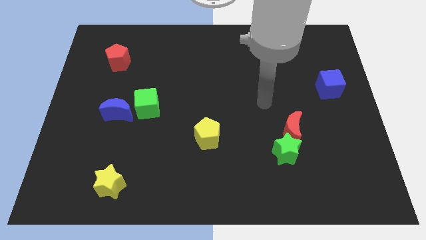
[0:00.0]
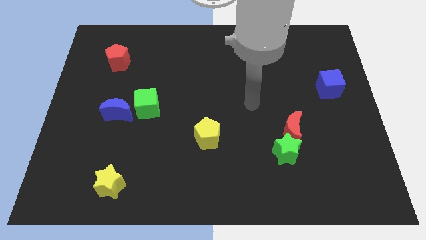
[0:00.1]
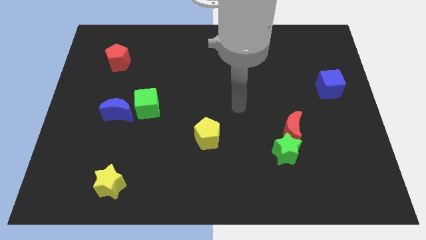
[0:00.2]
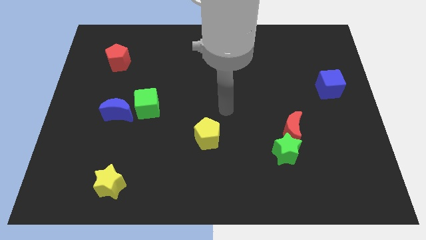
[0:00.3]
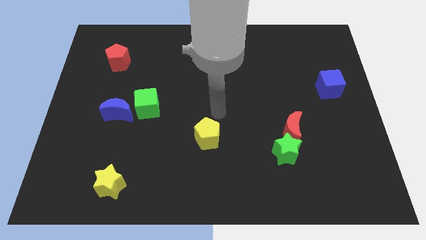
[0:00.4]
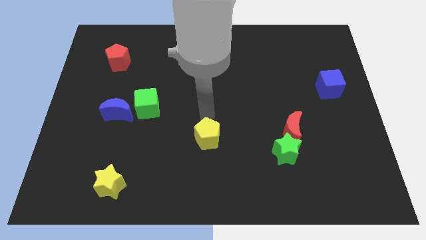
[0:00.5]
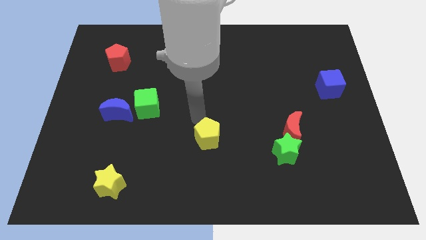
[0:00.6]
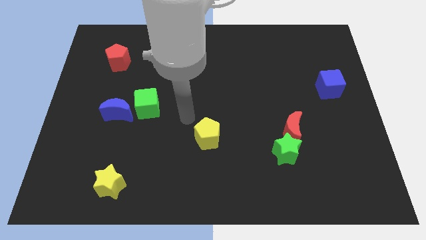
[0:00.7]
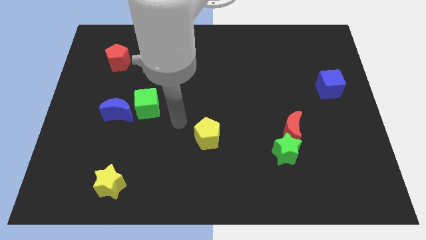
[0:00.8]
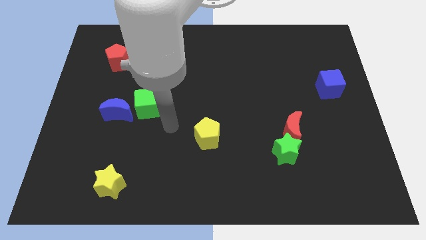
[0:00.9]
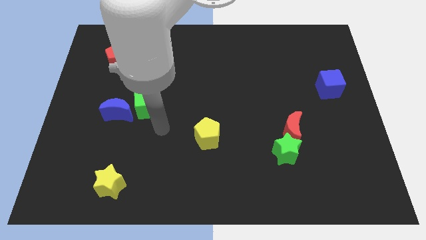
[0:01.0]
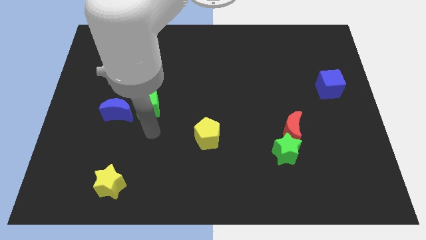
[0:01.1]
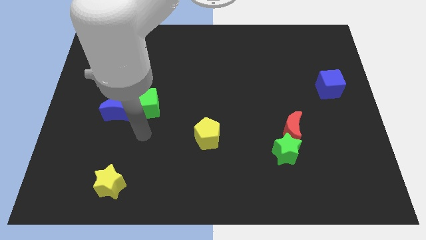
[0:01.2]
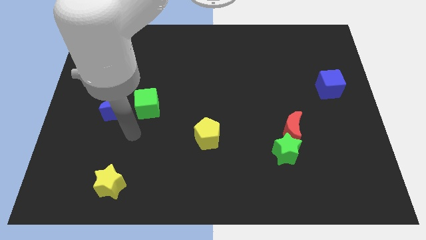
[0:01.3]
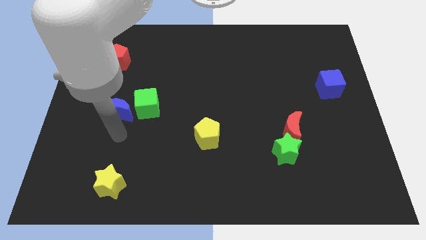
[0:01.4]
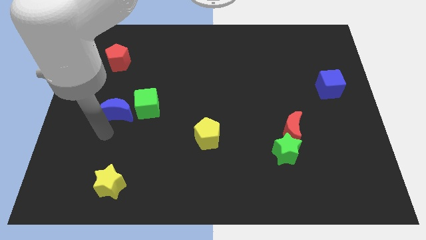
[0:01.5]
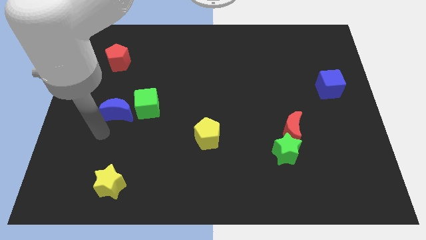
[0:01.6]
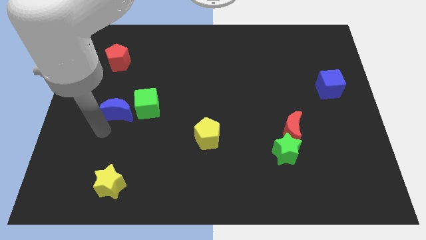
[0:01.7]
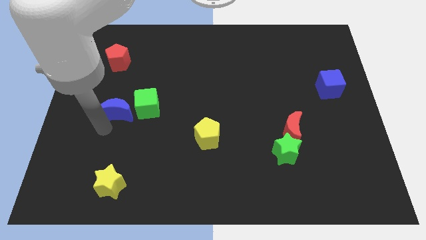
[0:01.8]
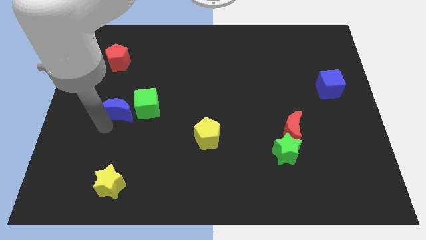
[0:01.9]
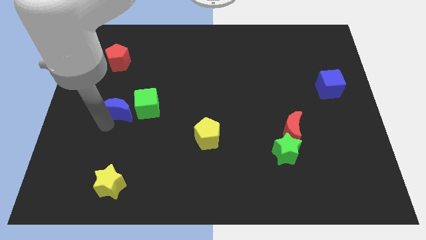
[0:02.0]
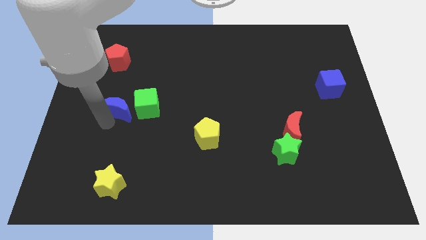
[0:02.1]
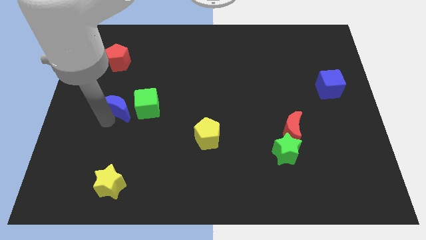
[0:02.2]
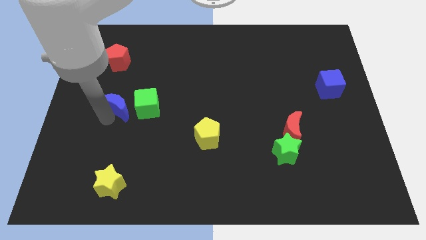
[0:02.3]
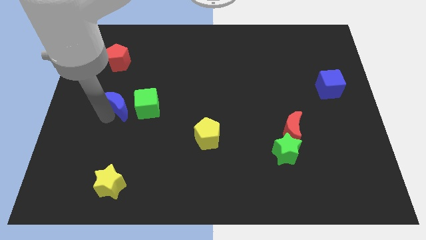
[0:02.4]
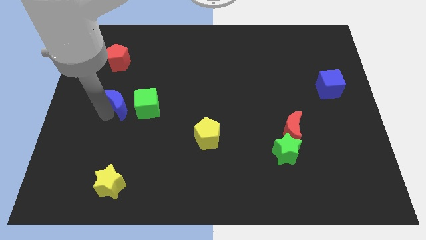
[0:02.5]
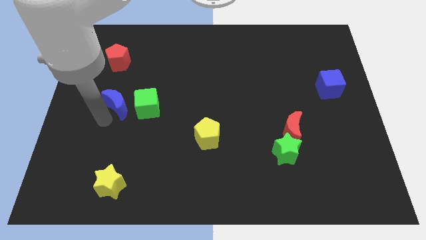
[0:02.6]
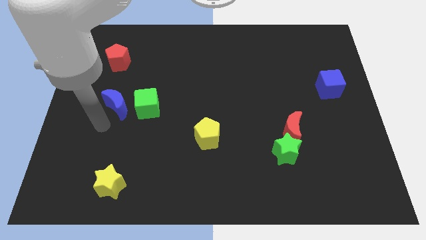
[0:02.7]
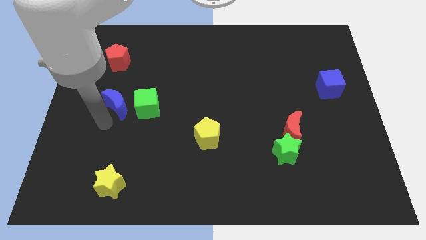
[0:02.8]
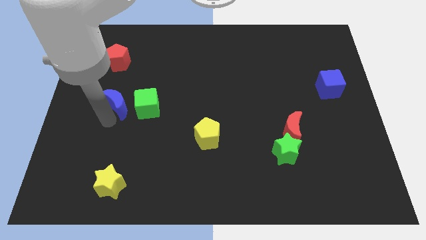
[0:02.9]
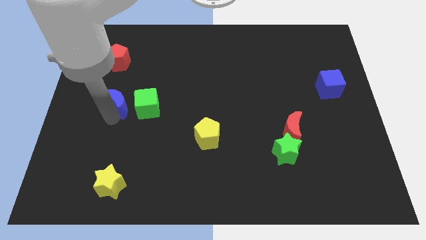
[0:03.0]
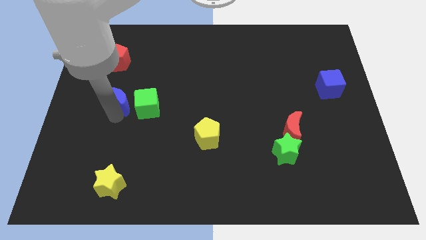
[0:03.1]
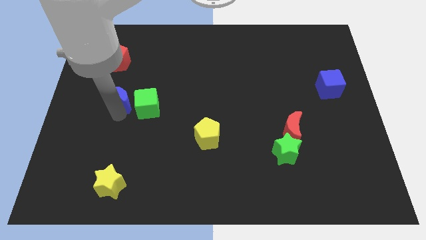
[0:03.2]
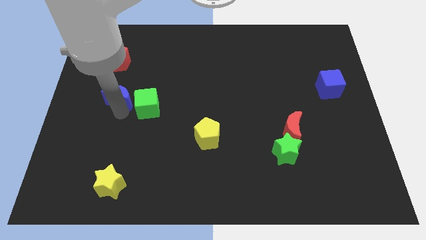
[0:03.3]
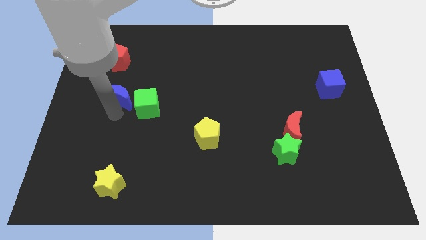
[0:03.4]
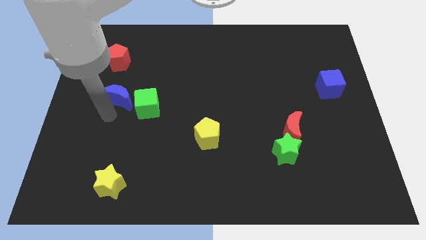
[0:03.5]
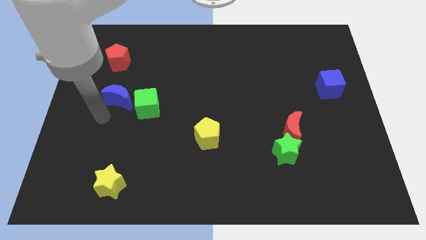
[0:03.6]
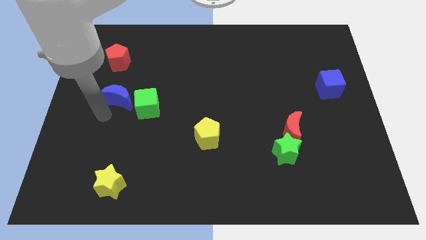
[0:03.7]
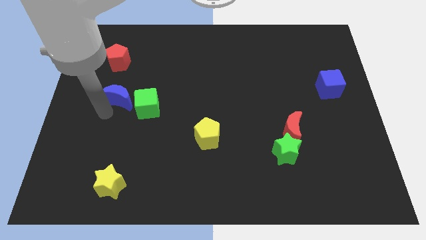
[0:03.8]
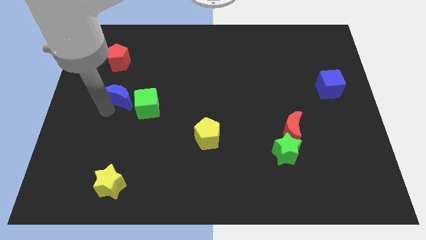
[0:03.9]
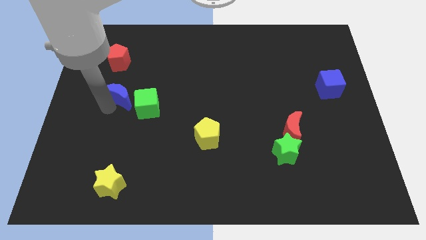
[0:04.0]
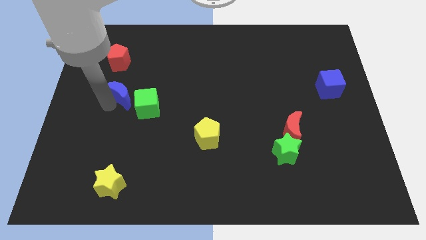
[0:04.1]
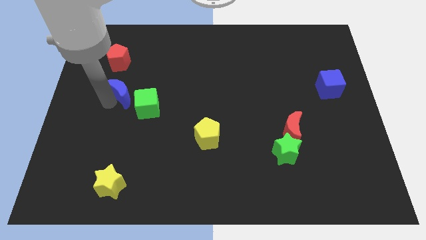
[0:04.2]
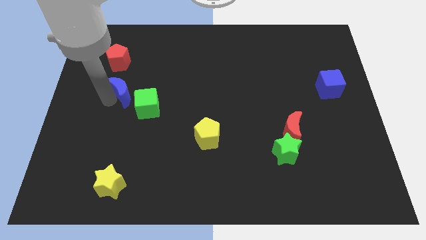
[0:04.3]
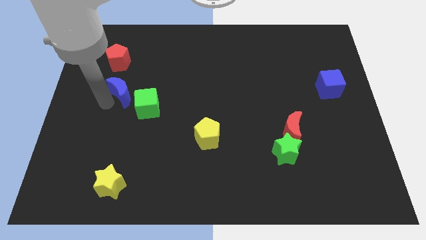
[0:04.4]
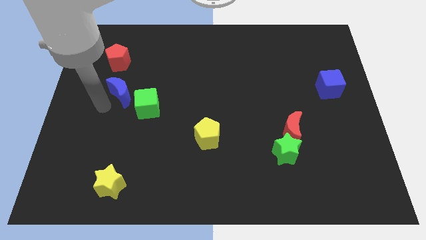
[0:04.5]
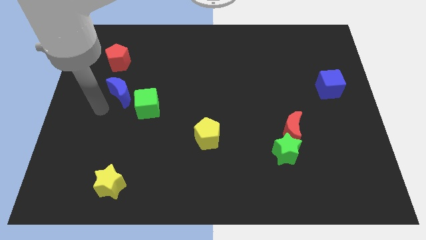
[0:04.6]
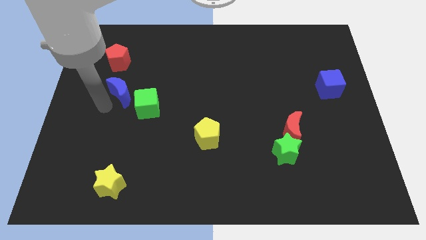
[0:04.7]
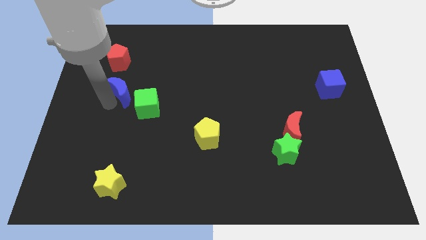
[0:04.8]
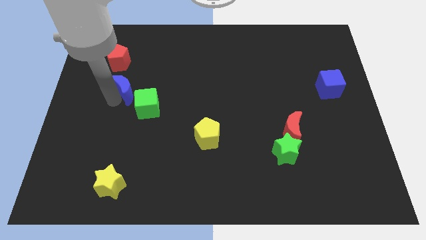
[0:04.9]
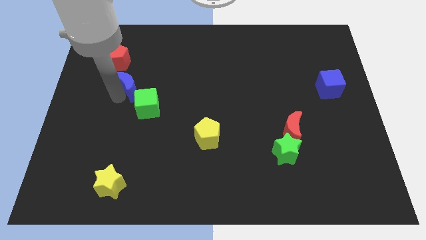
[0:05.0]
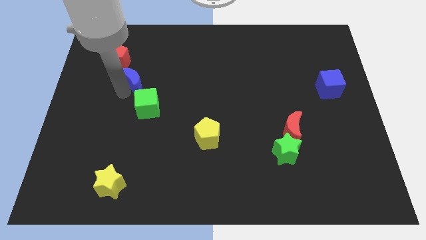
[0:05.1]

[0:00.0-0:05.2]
slide the blue moon to the top side of the green cube

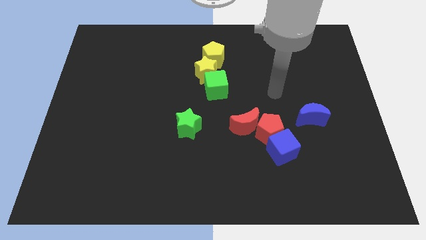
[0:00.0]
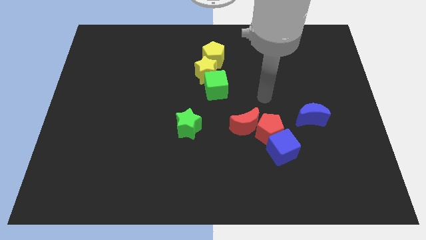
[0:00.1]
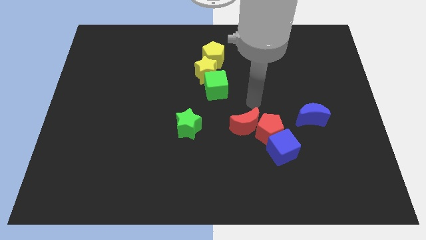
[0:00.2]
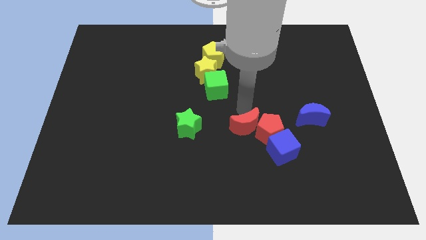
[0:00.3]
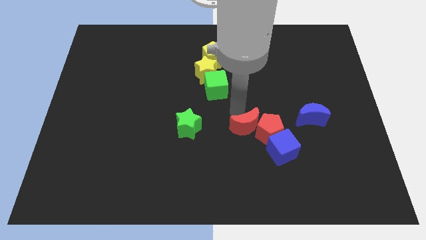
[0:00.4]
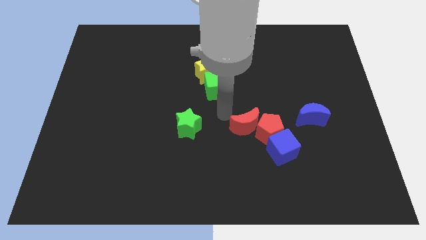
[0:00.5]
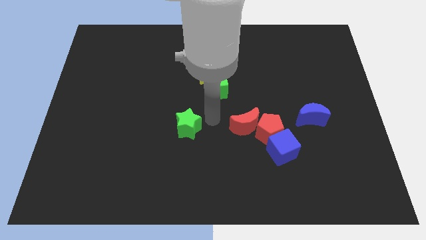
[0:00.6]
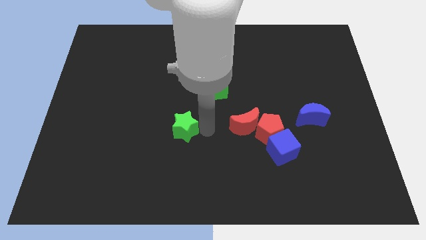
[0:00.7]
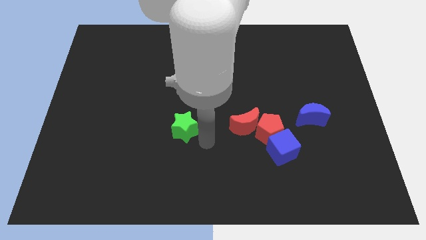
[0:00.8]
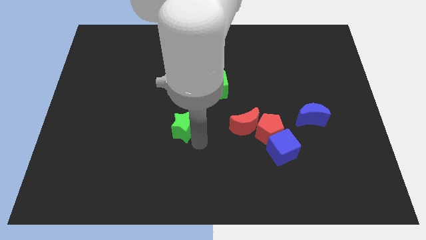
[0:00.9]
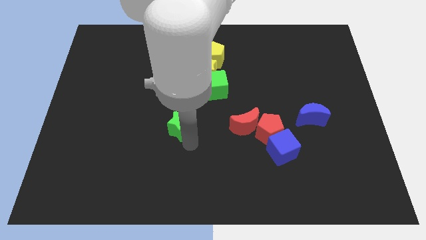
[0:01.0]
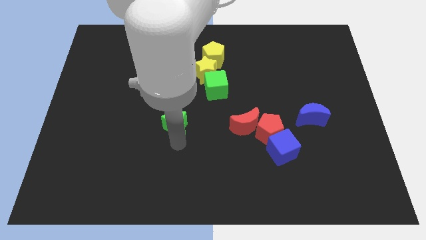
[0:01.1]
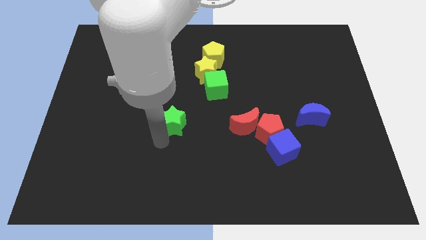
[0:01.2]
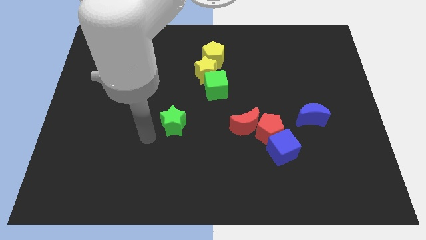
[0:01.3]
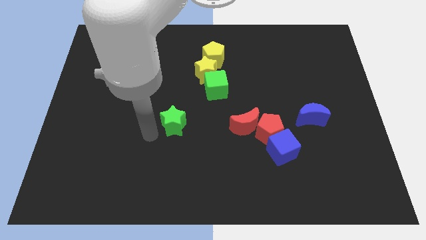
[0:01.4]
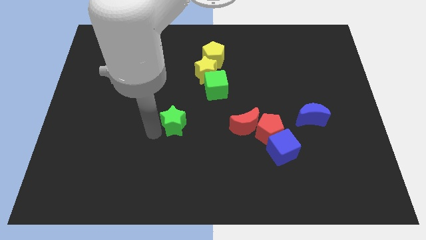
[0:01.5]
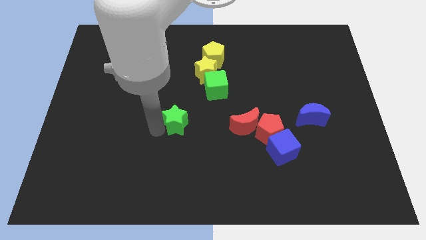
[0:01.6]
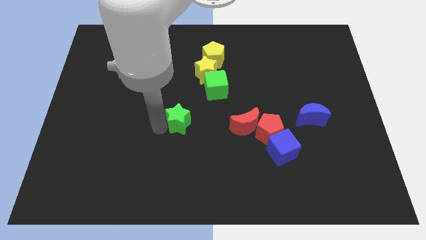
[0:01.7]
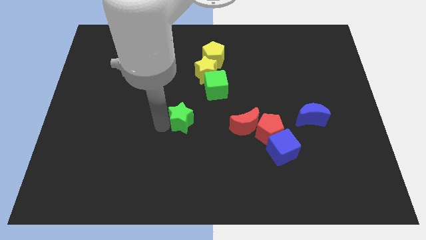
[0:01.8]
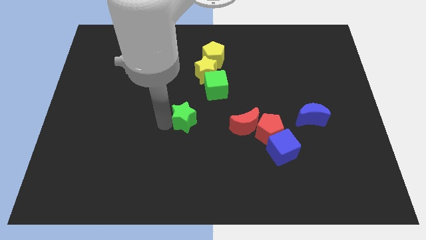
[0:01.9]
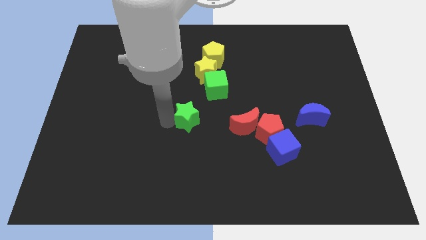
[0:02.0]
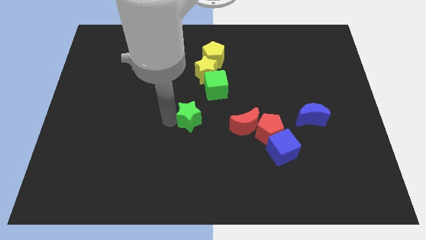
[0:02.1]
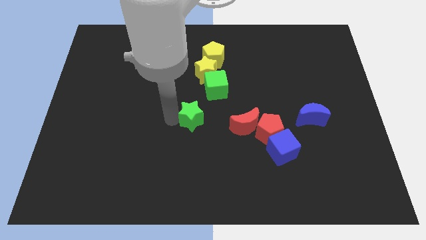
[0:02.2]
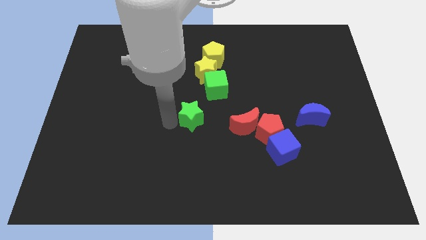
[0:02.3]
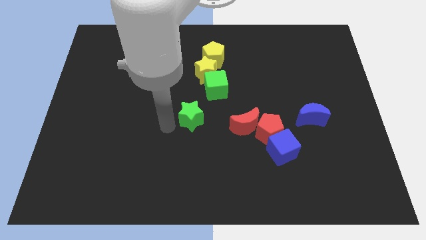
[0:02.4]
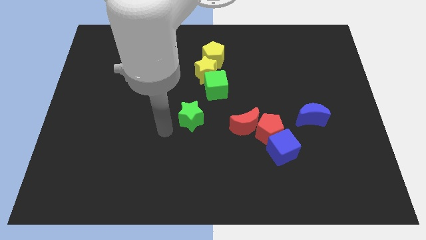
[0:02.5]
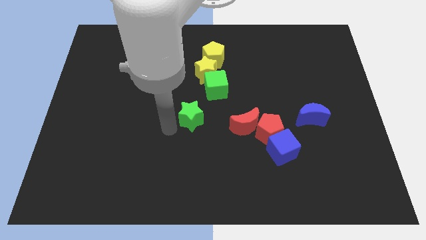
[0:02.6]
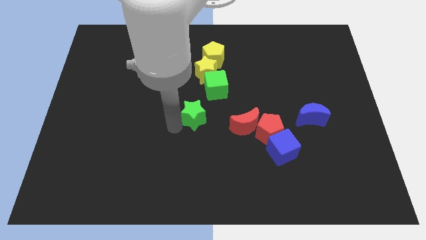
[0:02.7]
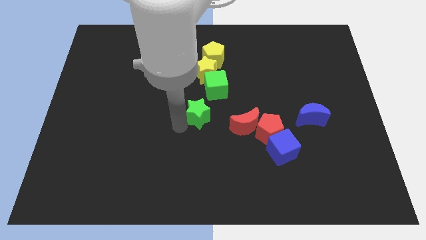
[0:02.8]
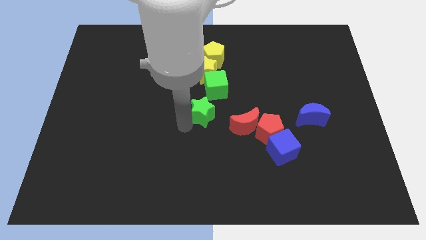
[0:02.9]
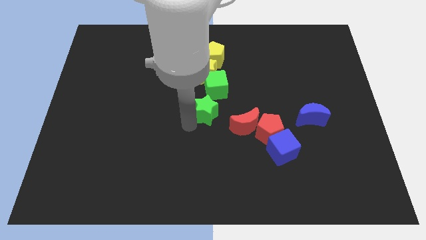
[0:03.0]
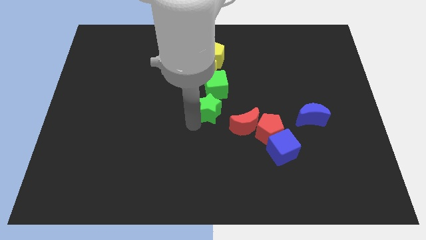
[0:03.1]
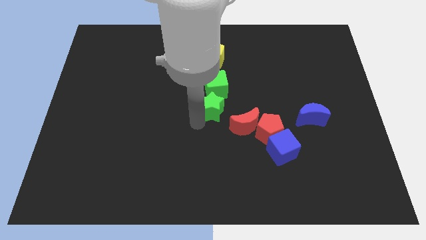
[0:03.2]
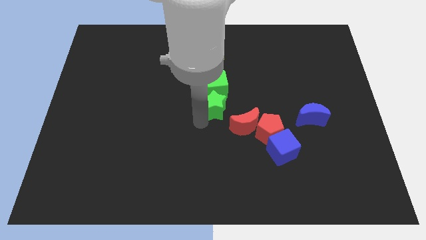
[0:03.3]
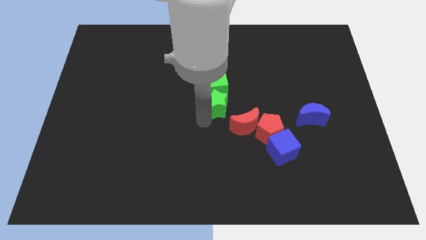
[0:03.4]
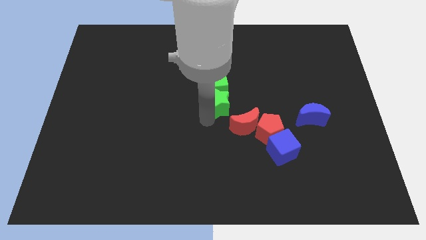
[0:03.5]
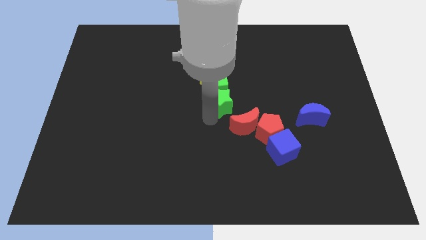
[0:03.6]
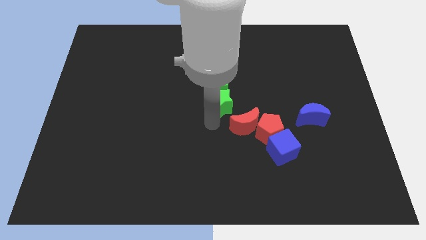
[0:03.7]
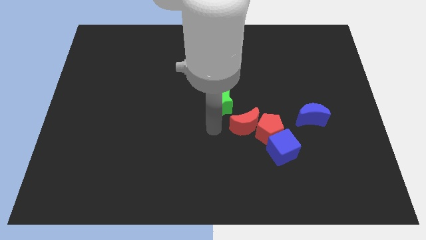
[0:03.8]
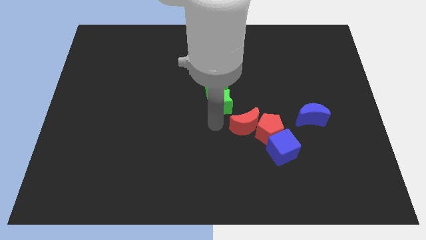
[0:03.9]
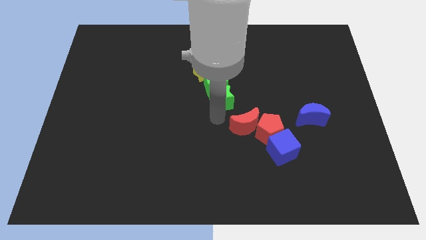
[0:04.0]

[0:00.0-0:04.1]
move the green star to the bottom right side of the yellow star
